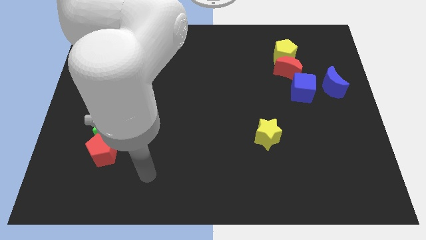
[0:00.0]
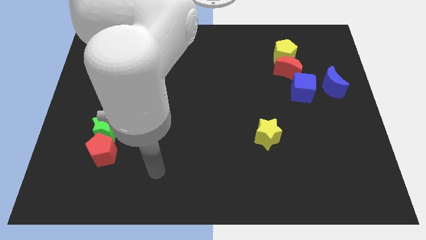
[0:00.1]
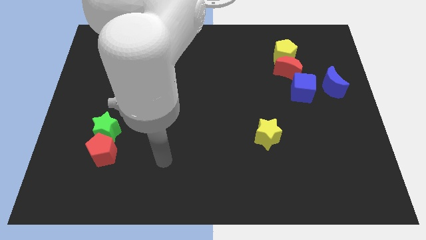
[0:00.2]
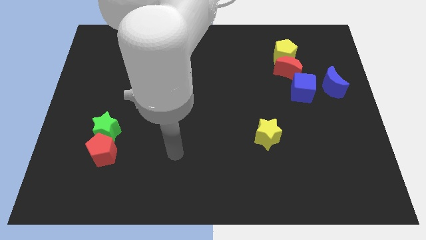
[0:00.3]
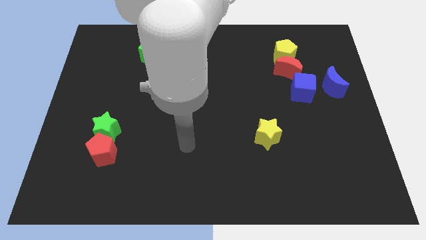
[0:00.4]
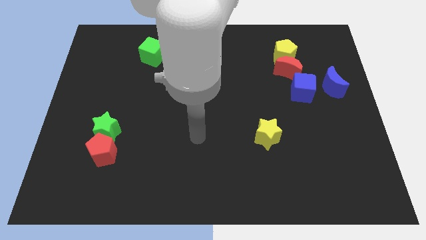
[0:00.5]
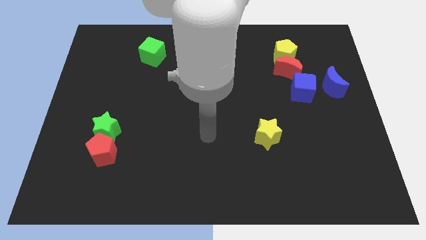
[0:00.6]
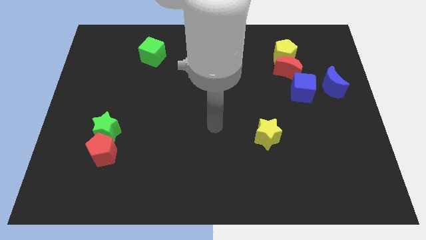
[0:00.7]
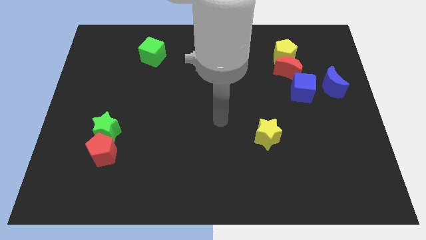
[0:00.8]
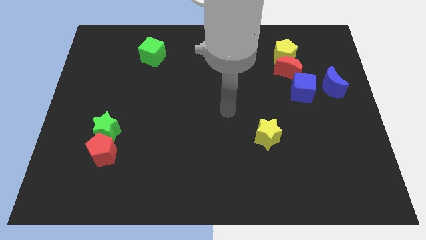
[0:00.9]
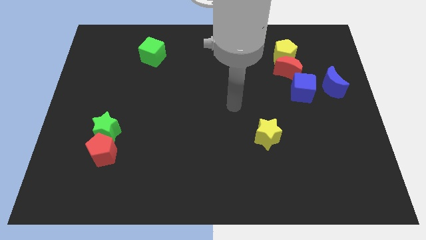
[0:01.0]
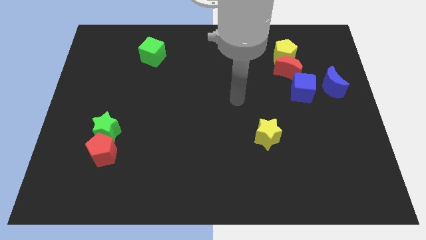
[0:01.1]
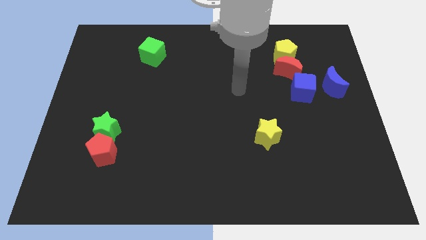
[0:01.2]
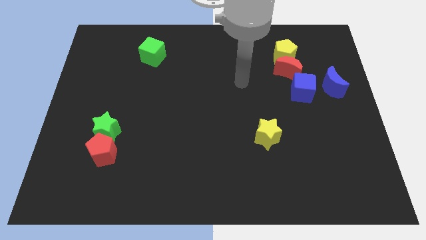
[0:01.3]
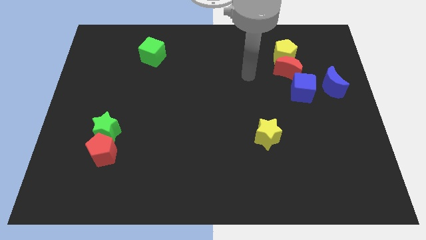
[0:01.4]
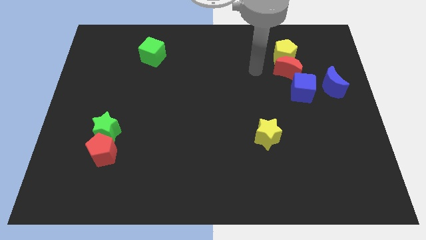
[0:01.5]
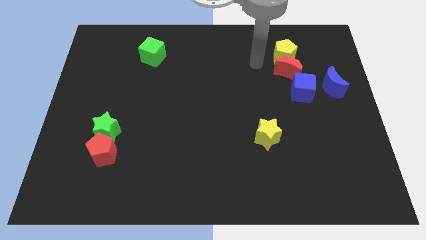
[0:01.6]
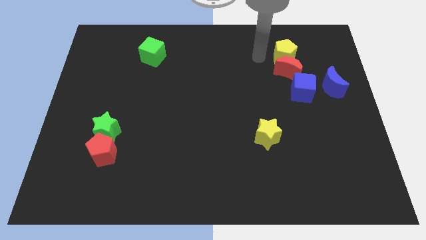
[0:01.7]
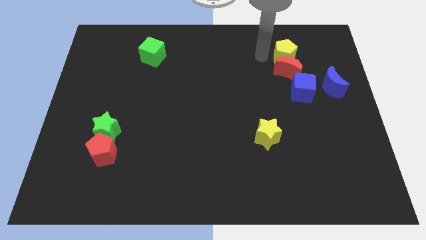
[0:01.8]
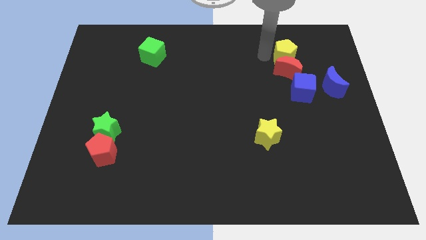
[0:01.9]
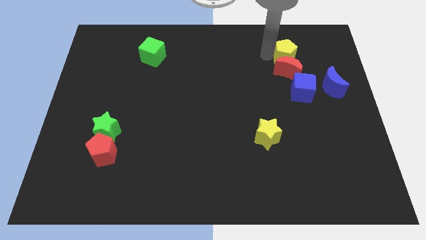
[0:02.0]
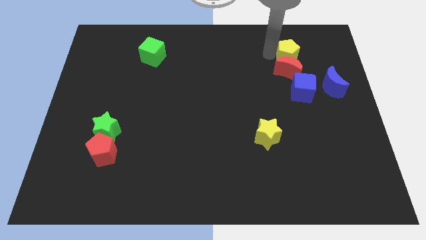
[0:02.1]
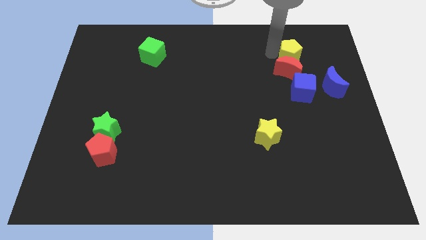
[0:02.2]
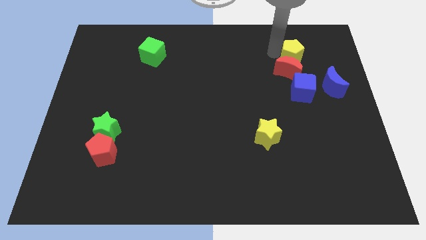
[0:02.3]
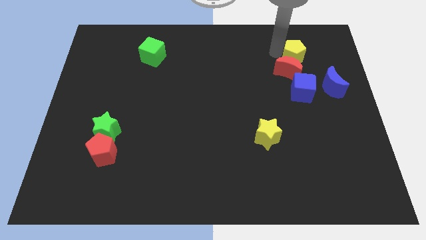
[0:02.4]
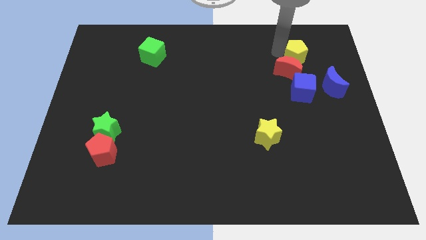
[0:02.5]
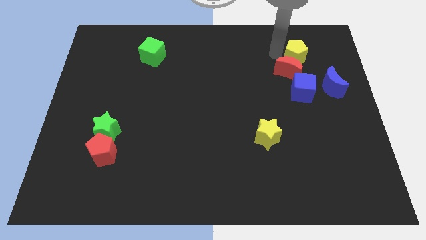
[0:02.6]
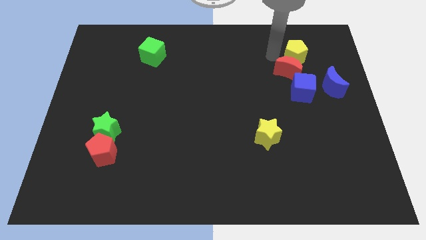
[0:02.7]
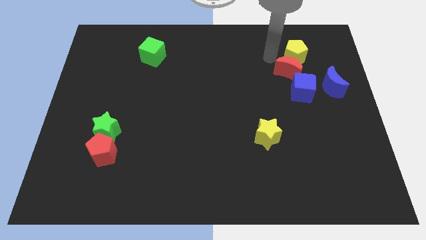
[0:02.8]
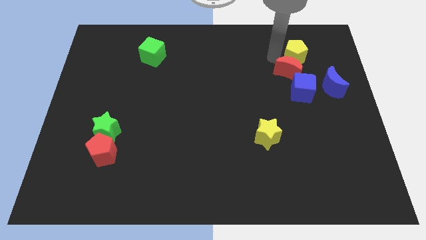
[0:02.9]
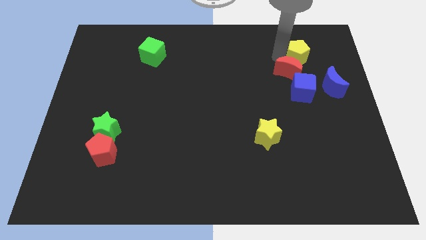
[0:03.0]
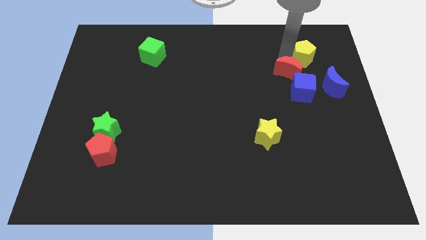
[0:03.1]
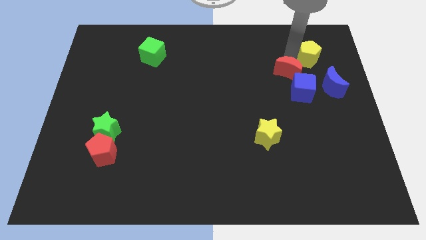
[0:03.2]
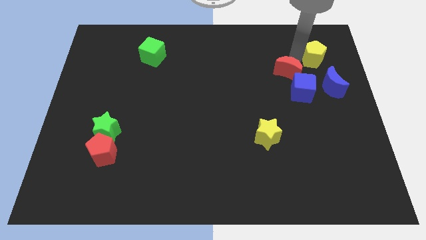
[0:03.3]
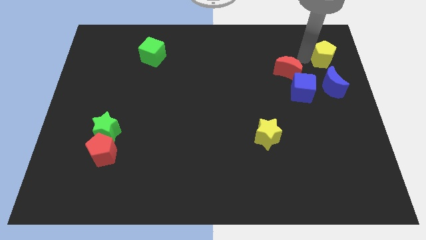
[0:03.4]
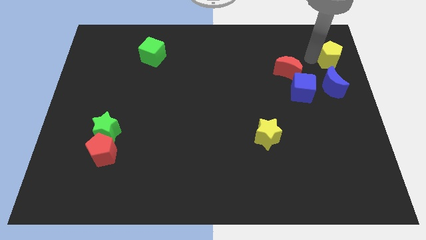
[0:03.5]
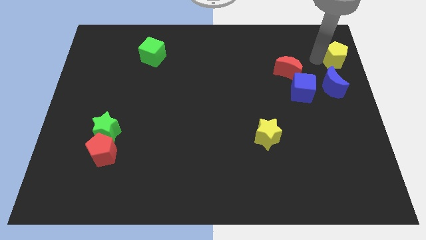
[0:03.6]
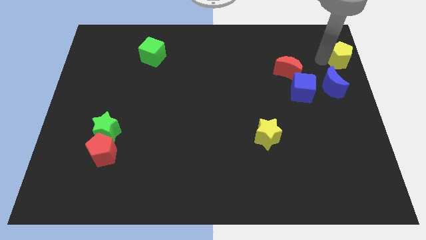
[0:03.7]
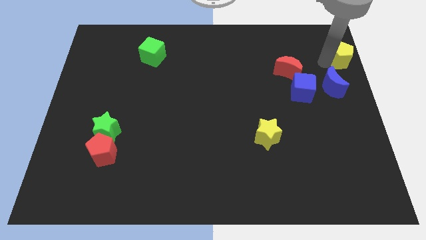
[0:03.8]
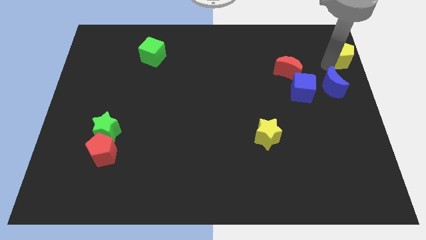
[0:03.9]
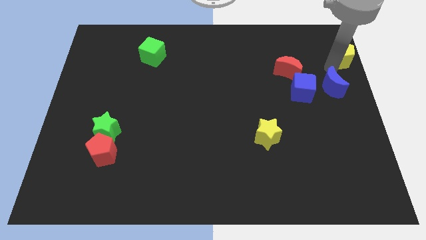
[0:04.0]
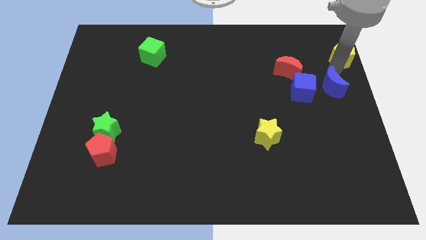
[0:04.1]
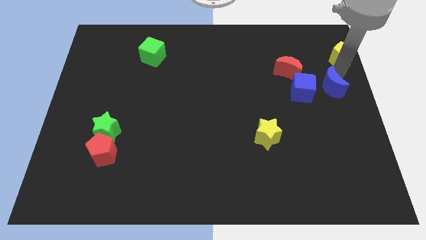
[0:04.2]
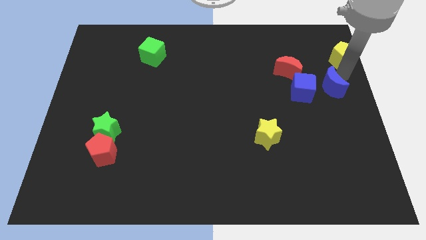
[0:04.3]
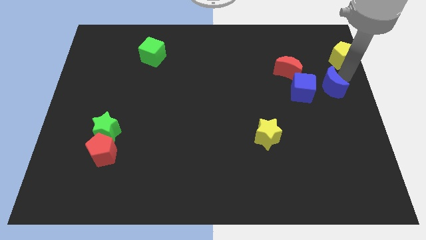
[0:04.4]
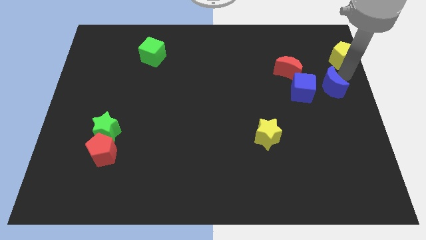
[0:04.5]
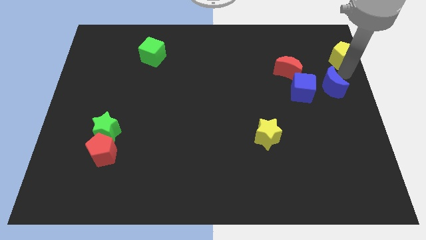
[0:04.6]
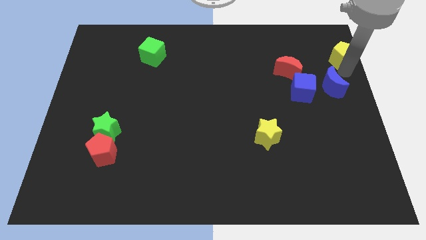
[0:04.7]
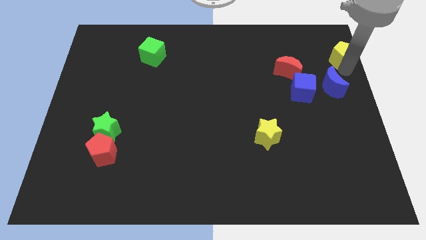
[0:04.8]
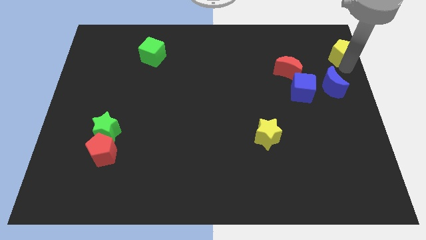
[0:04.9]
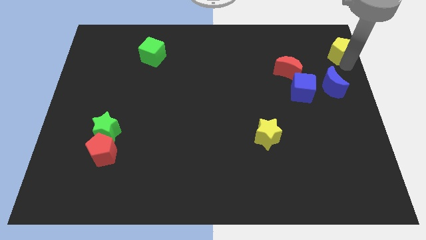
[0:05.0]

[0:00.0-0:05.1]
move the yellow pentagon to the upper right corner

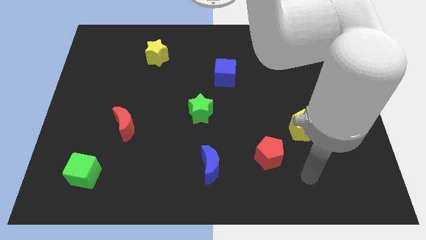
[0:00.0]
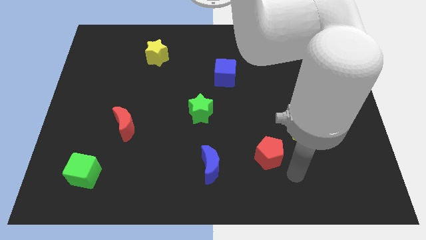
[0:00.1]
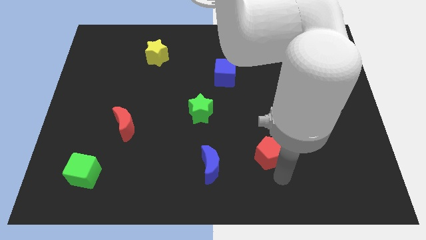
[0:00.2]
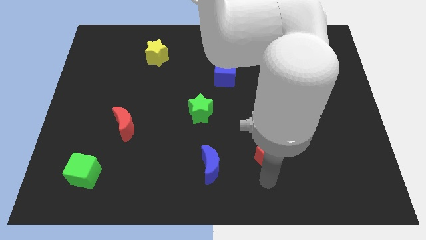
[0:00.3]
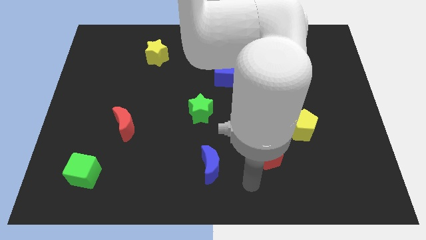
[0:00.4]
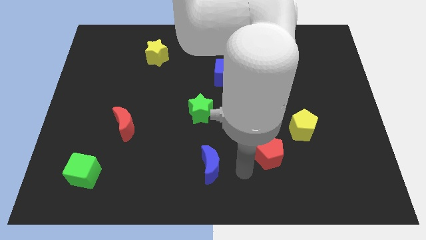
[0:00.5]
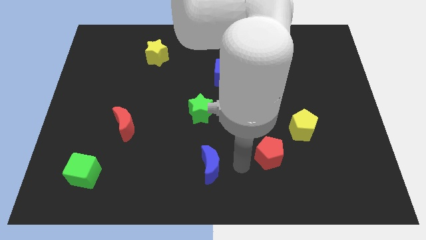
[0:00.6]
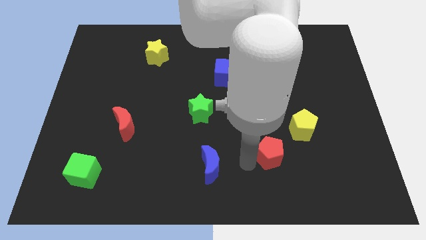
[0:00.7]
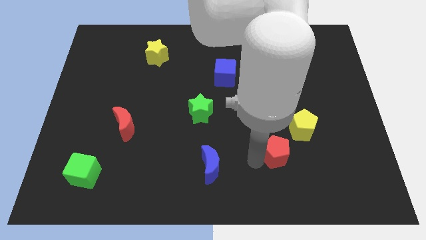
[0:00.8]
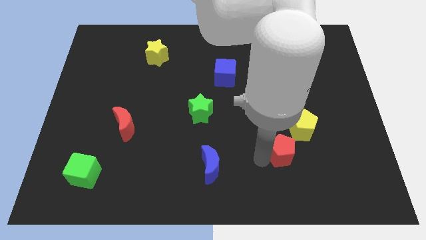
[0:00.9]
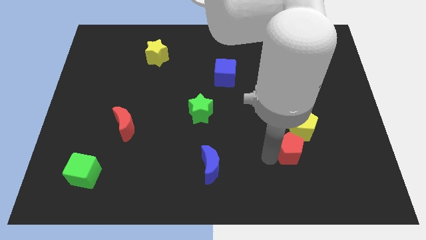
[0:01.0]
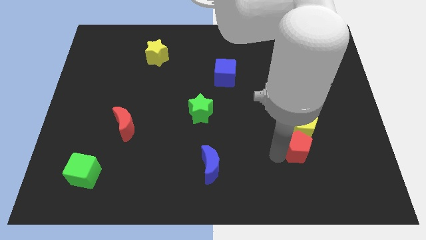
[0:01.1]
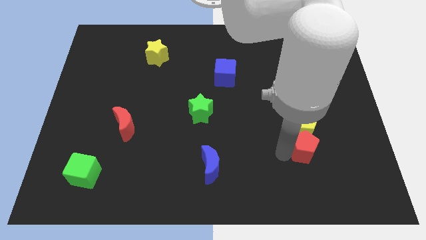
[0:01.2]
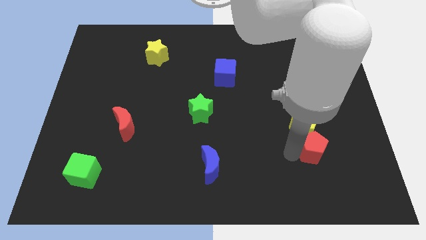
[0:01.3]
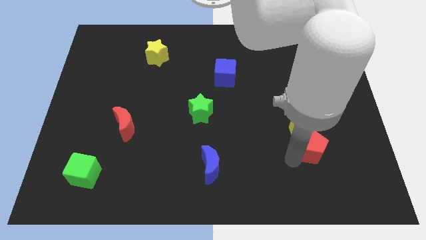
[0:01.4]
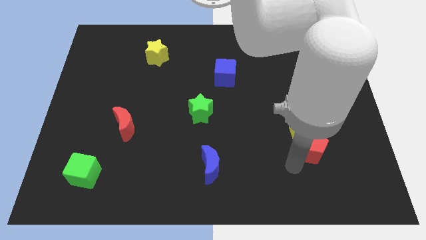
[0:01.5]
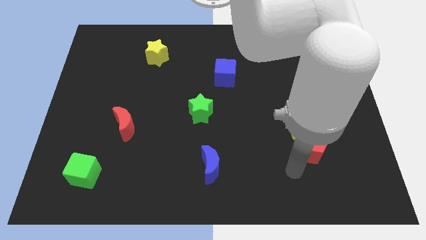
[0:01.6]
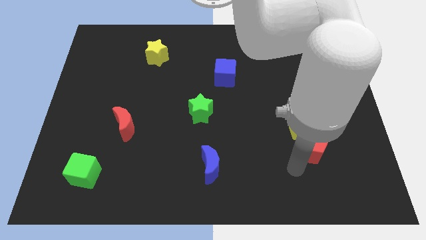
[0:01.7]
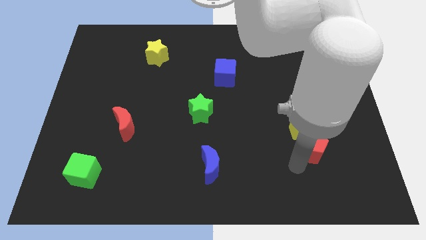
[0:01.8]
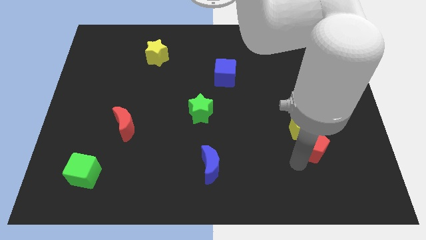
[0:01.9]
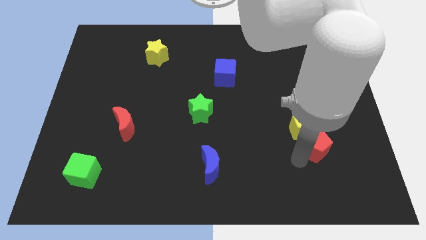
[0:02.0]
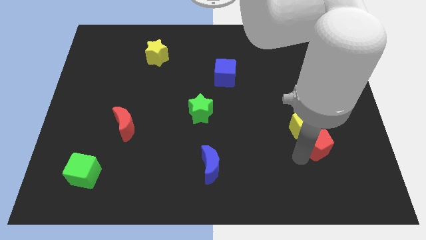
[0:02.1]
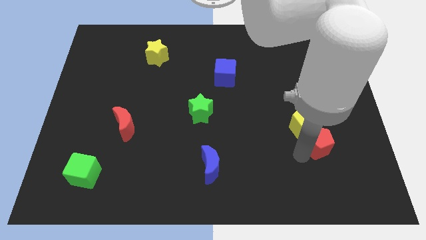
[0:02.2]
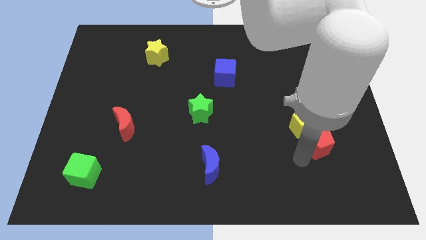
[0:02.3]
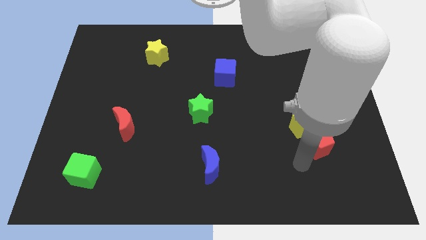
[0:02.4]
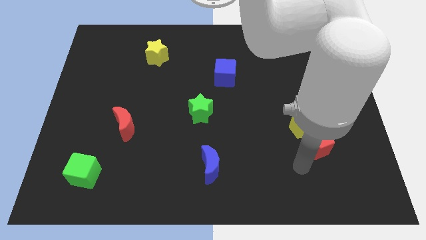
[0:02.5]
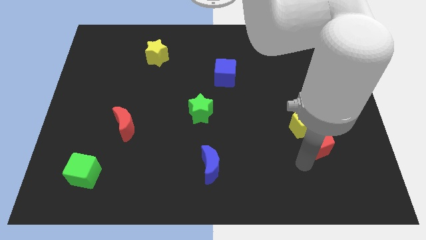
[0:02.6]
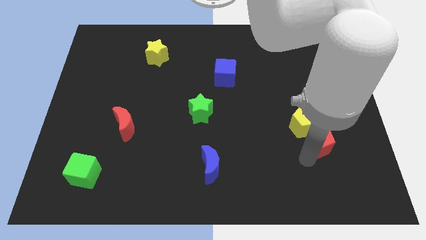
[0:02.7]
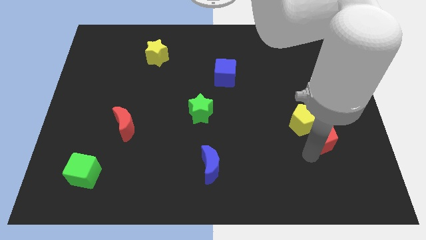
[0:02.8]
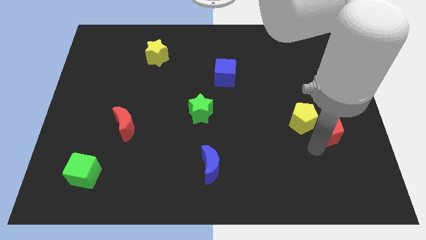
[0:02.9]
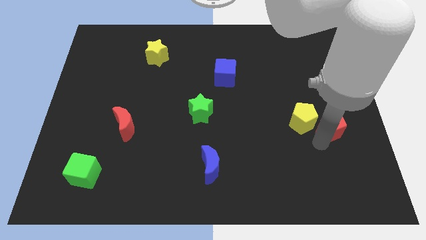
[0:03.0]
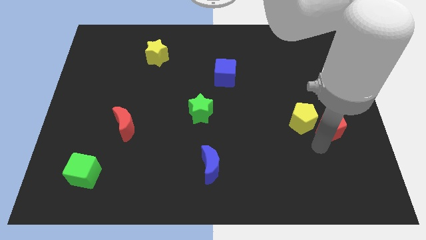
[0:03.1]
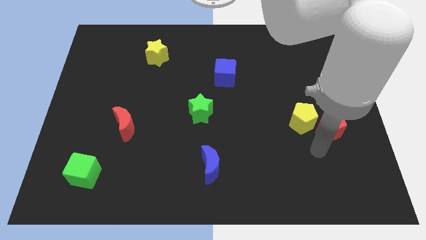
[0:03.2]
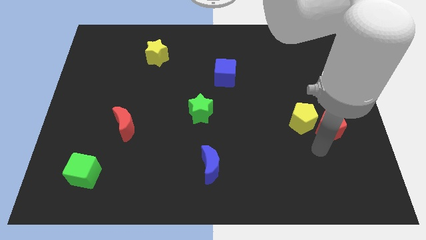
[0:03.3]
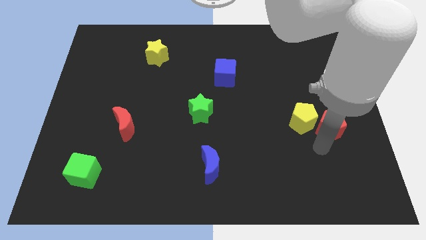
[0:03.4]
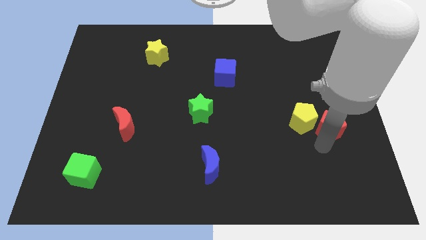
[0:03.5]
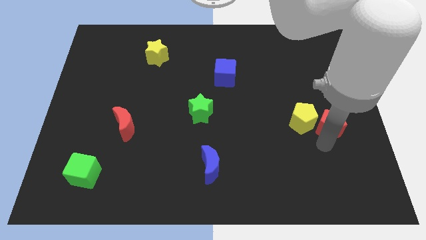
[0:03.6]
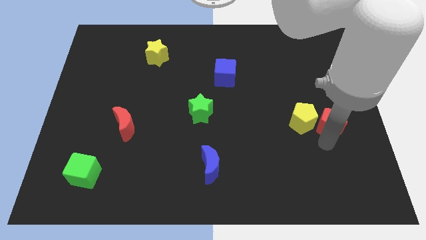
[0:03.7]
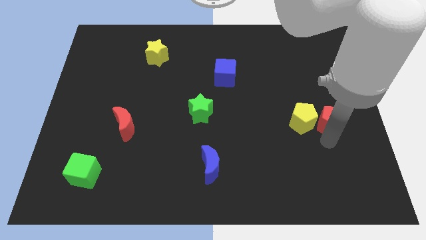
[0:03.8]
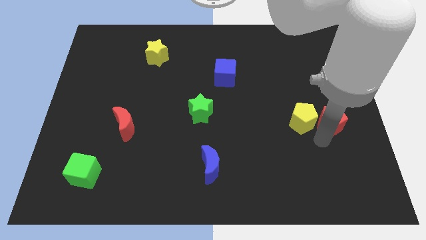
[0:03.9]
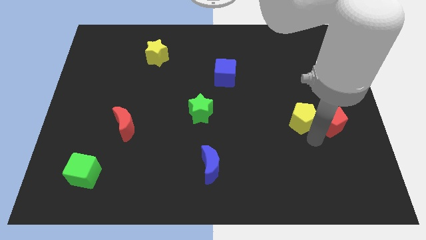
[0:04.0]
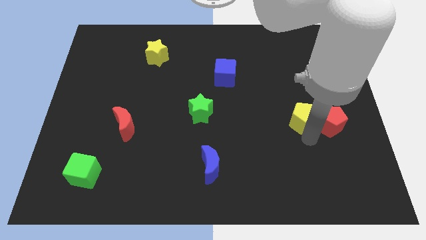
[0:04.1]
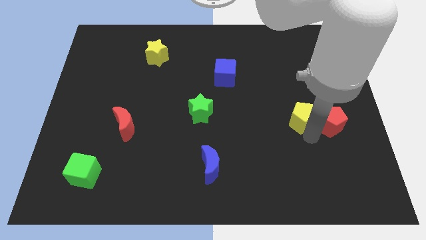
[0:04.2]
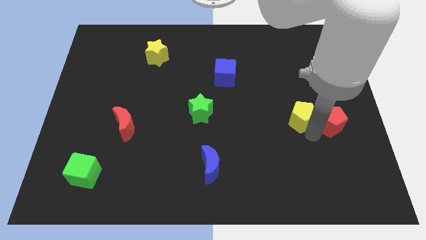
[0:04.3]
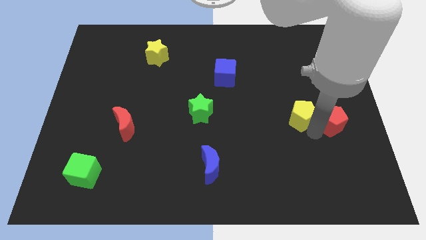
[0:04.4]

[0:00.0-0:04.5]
push the red pentagon to the center right
